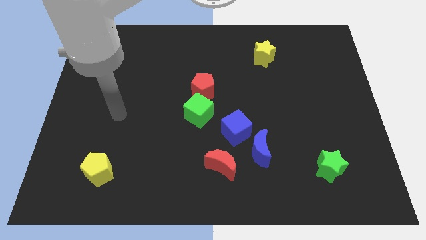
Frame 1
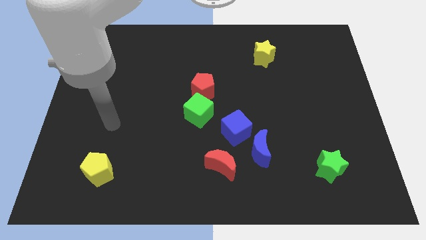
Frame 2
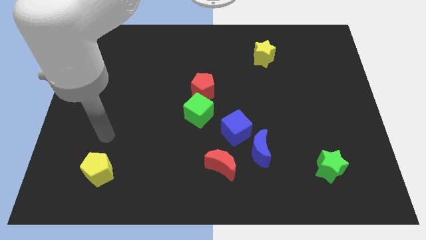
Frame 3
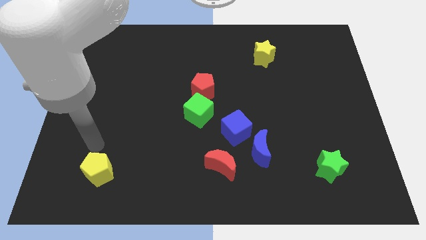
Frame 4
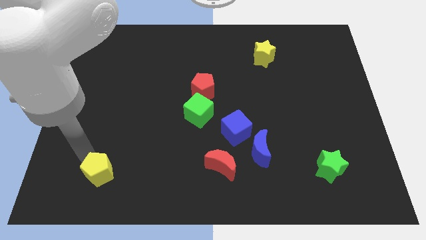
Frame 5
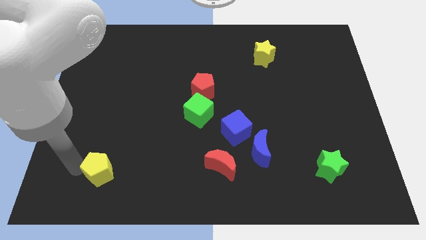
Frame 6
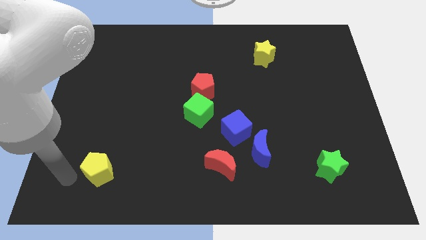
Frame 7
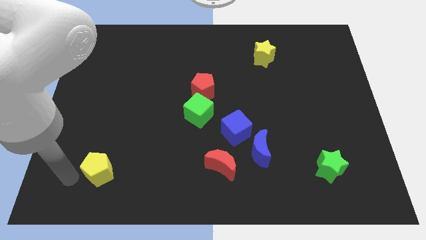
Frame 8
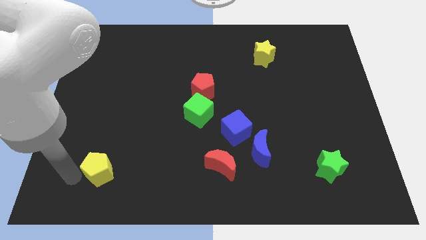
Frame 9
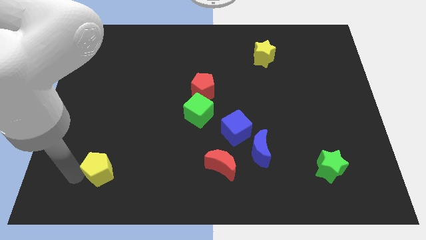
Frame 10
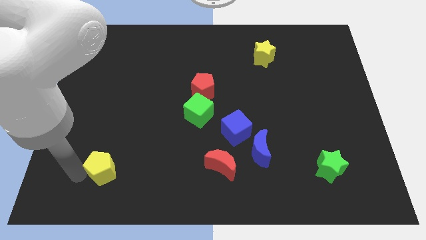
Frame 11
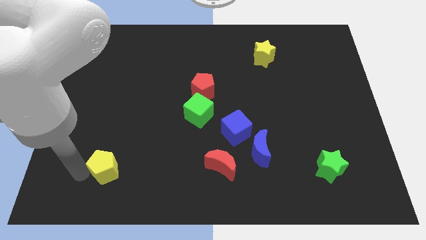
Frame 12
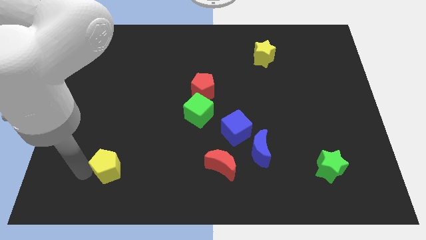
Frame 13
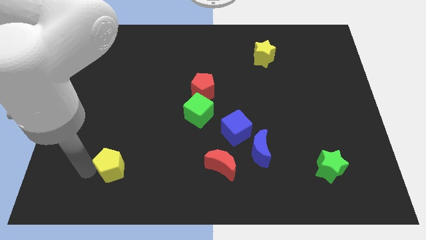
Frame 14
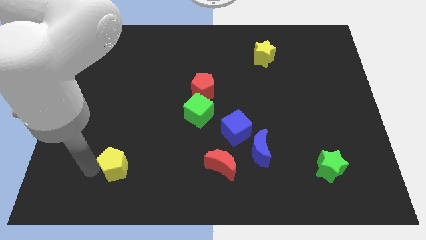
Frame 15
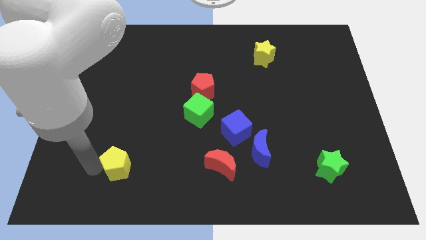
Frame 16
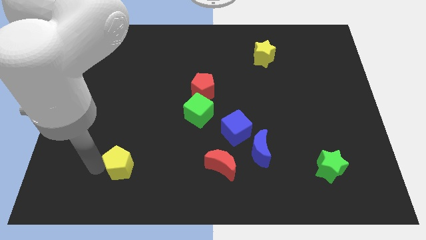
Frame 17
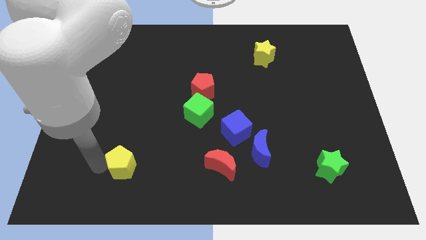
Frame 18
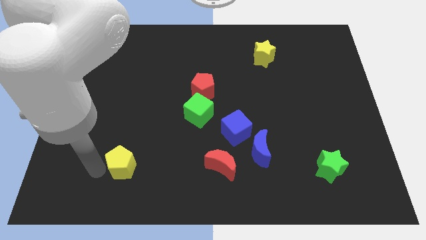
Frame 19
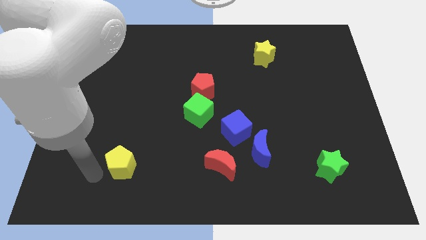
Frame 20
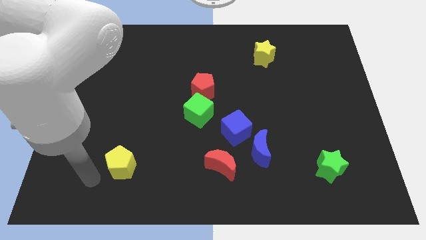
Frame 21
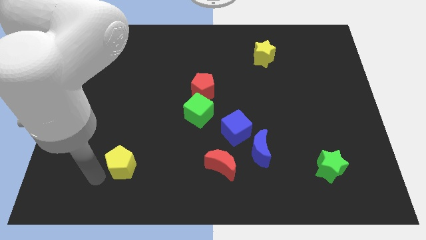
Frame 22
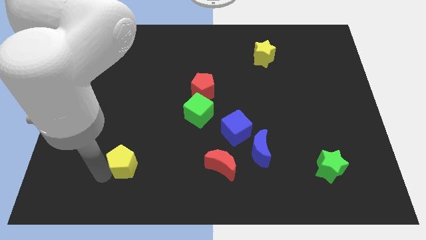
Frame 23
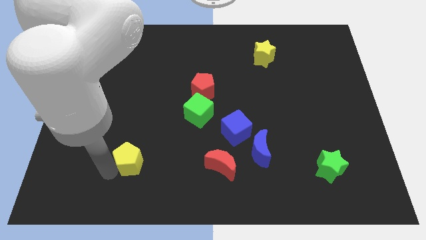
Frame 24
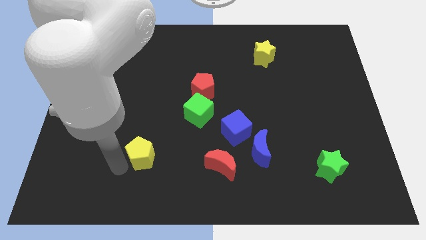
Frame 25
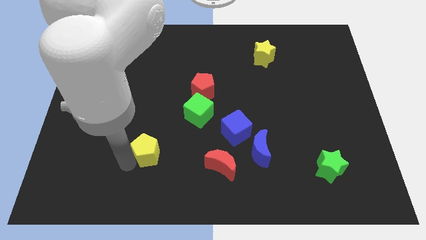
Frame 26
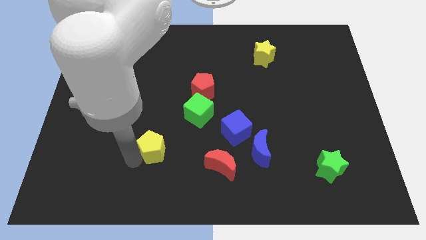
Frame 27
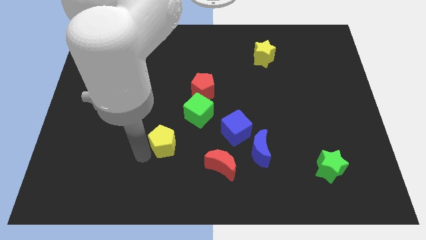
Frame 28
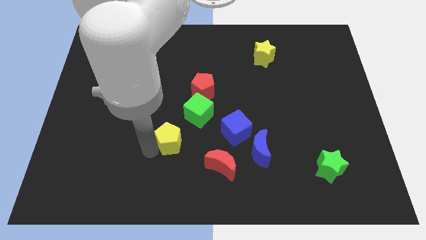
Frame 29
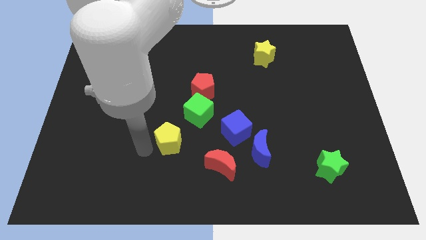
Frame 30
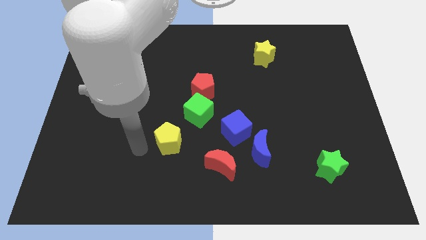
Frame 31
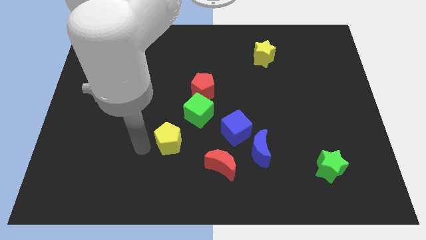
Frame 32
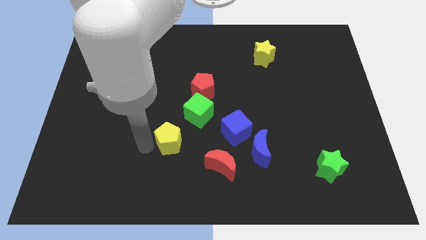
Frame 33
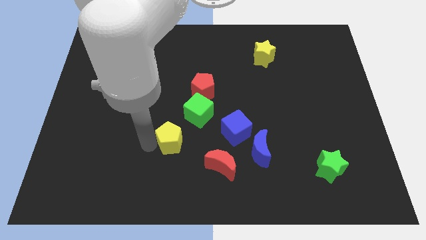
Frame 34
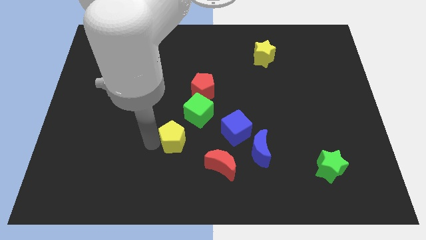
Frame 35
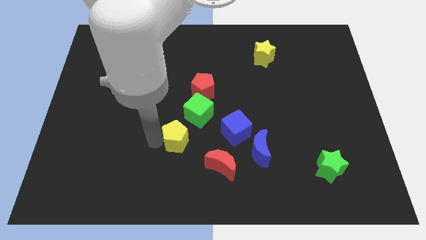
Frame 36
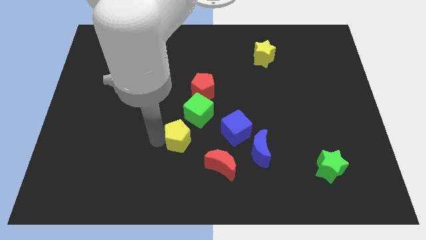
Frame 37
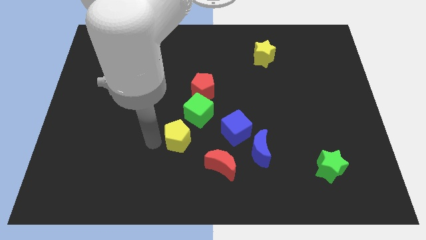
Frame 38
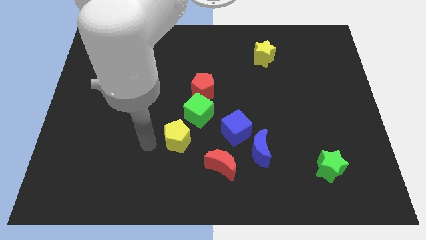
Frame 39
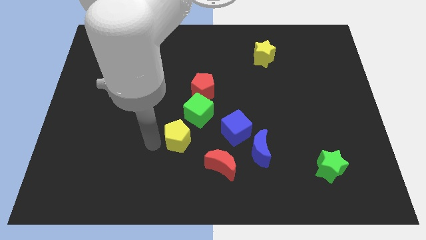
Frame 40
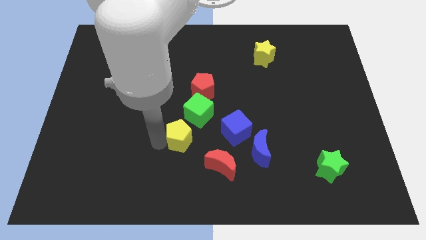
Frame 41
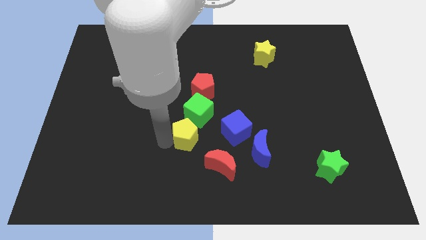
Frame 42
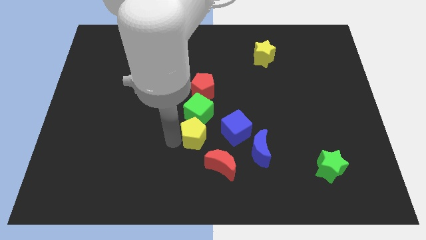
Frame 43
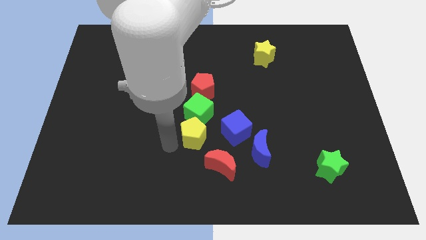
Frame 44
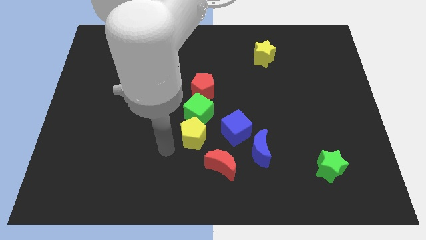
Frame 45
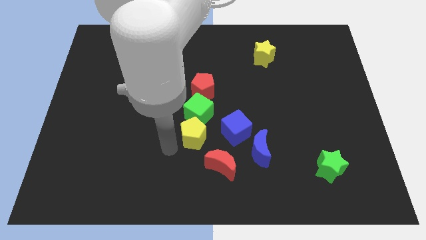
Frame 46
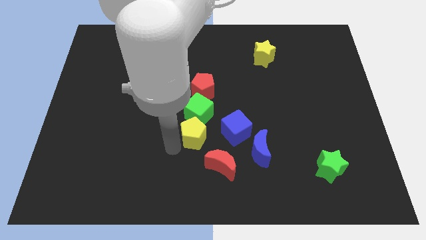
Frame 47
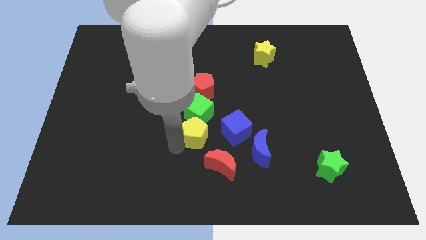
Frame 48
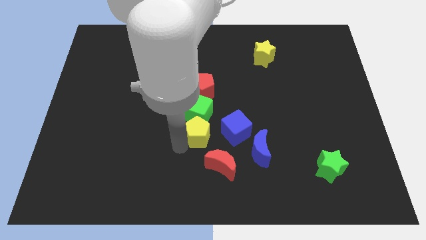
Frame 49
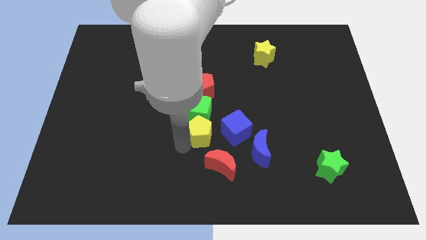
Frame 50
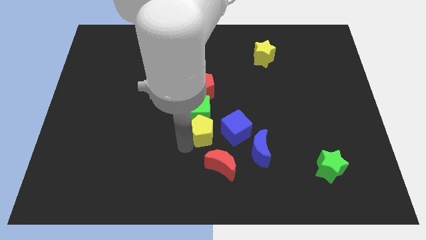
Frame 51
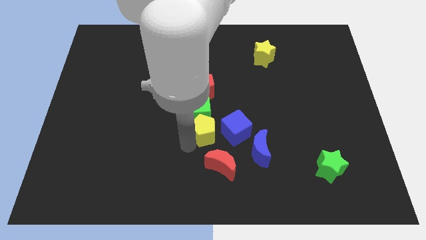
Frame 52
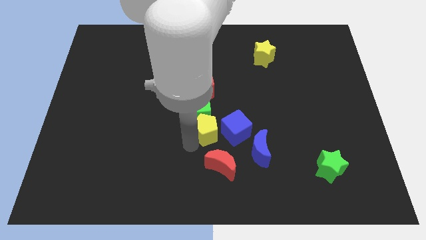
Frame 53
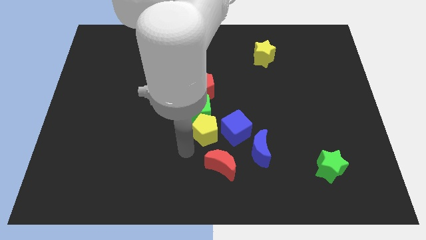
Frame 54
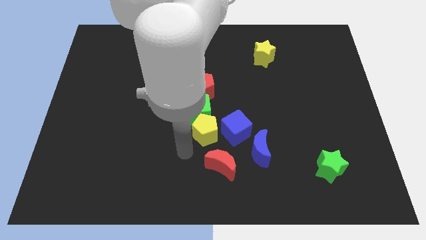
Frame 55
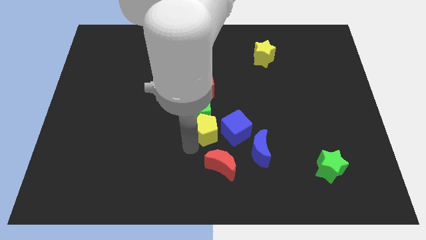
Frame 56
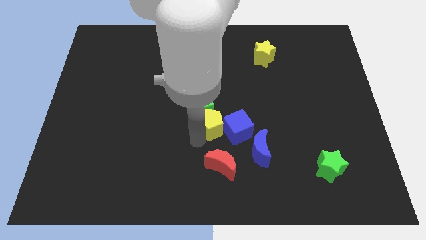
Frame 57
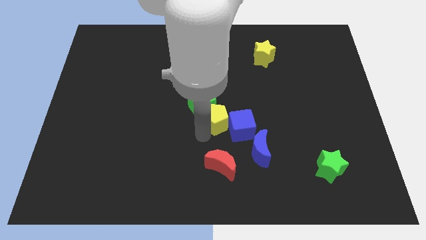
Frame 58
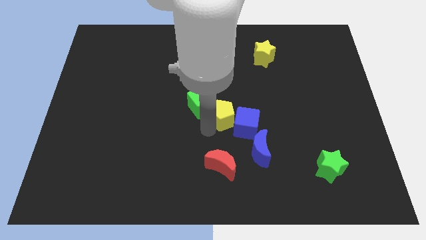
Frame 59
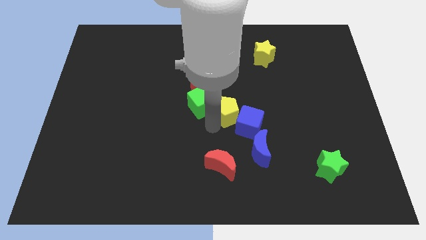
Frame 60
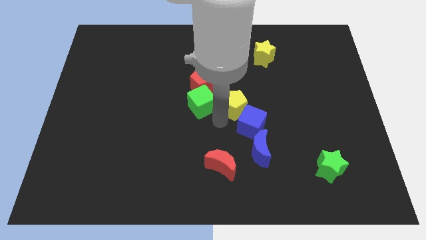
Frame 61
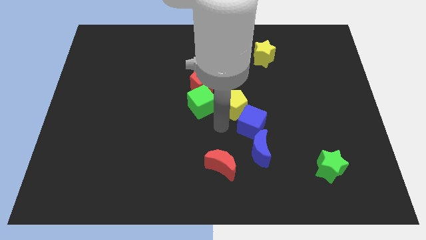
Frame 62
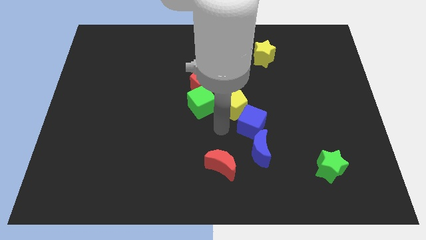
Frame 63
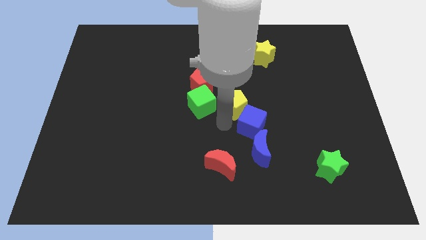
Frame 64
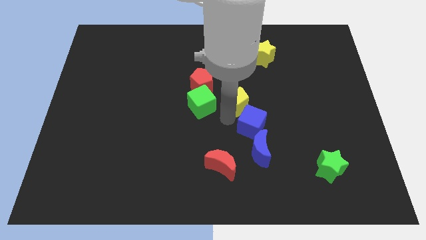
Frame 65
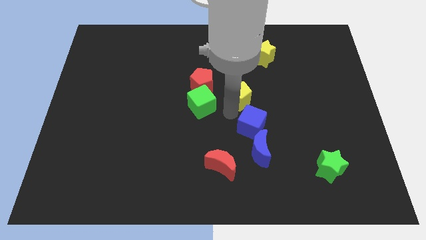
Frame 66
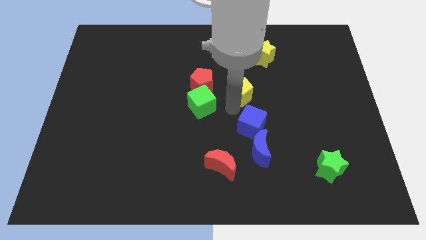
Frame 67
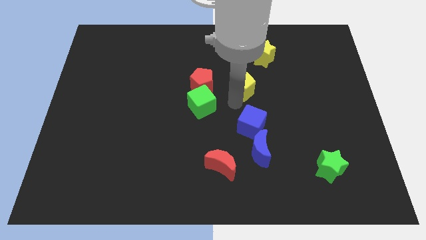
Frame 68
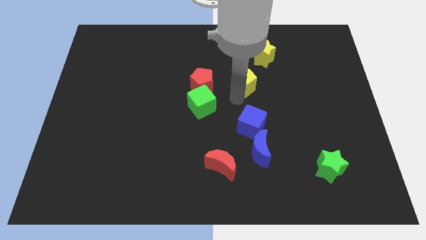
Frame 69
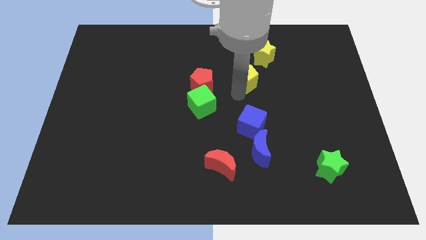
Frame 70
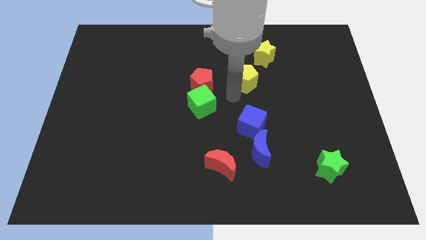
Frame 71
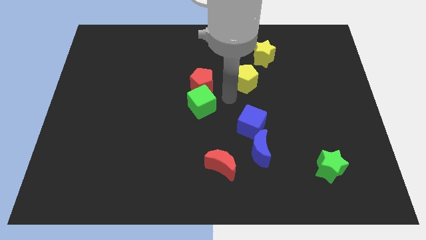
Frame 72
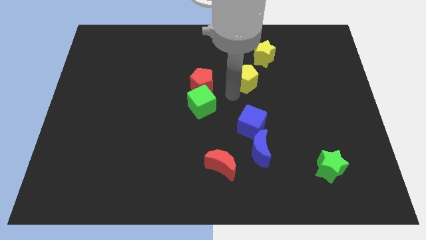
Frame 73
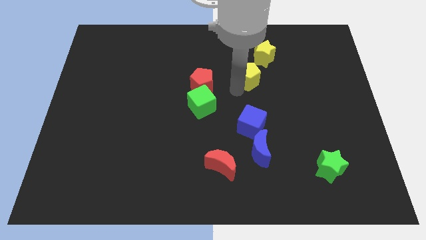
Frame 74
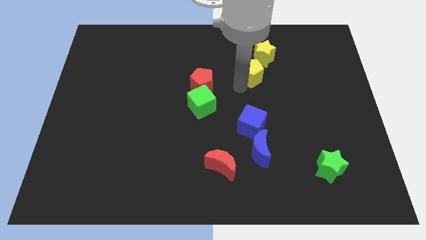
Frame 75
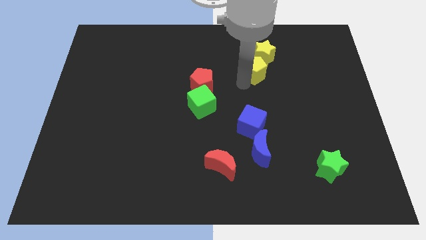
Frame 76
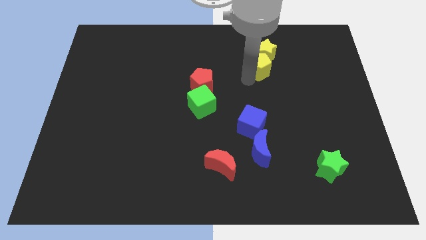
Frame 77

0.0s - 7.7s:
put the yellow pentagon close to the yellow star

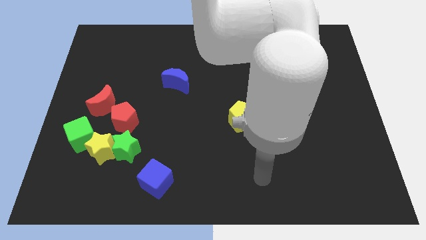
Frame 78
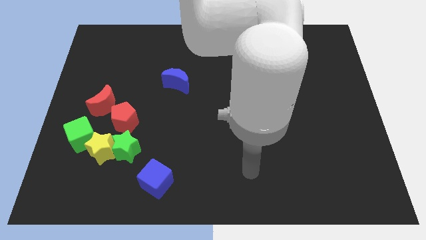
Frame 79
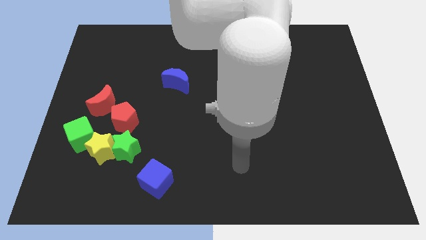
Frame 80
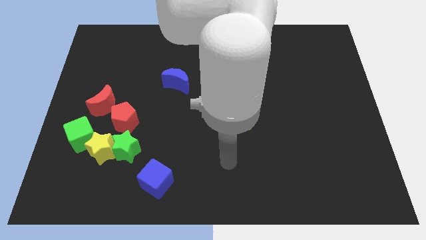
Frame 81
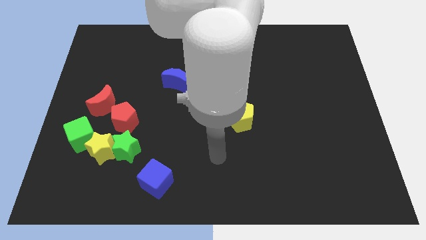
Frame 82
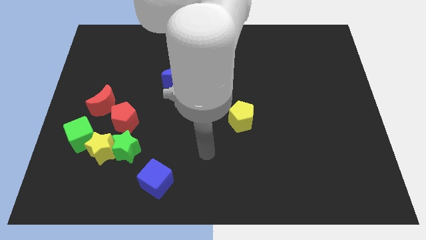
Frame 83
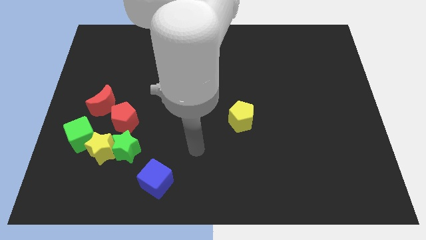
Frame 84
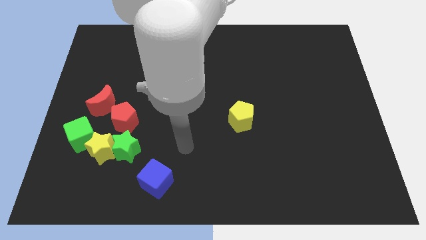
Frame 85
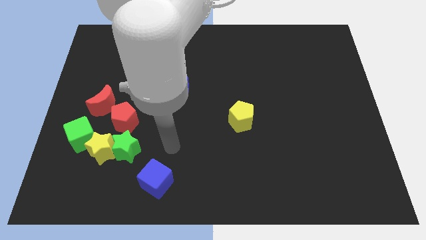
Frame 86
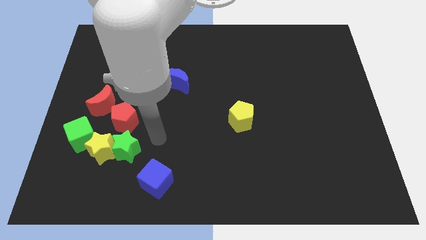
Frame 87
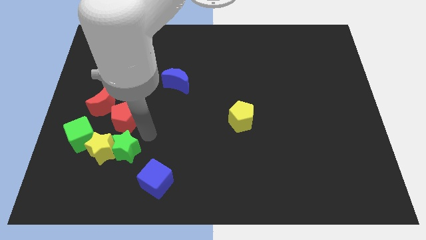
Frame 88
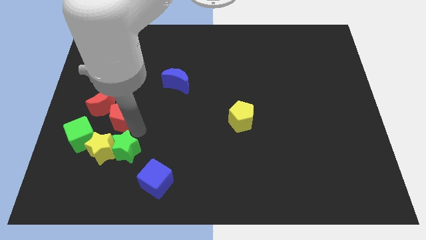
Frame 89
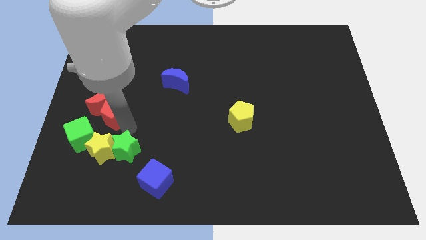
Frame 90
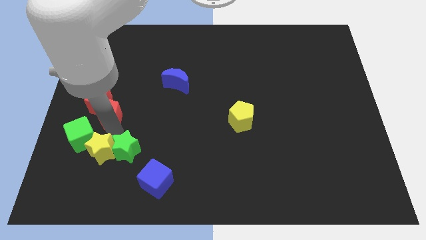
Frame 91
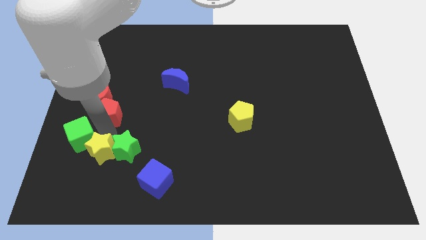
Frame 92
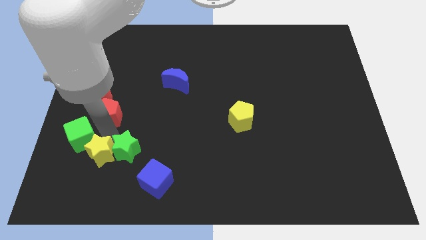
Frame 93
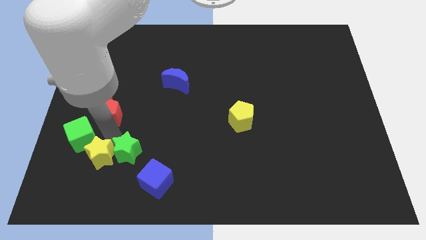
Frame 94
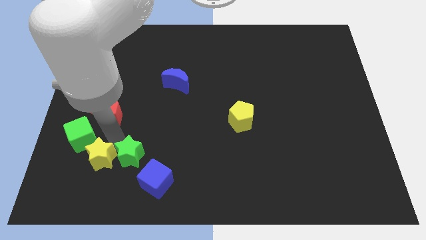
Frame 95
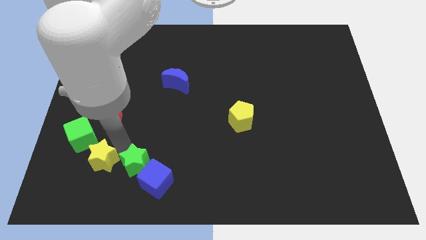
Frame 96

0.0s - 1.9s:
move the green star next to the blue cube
